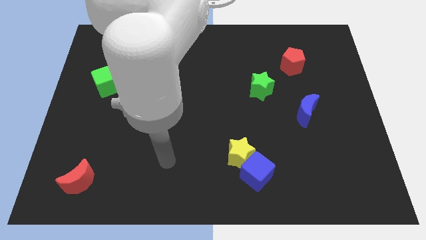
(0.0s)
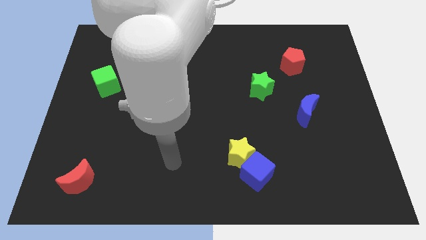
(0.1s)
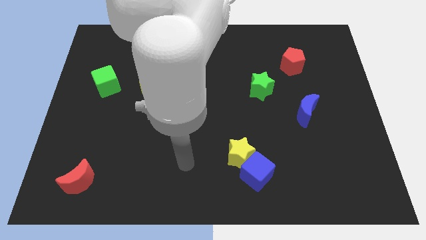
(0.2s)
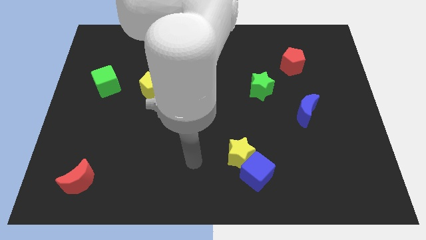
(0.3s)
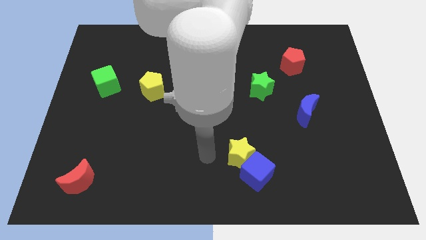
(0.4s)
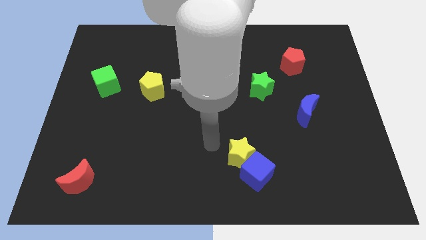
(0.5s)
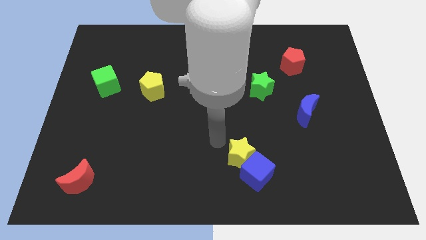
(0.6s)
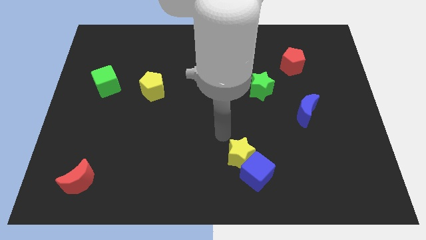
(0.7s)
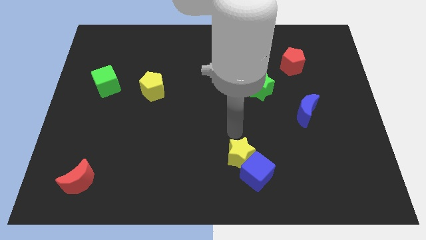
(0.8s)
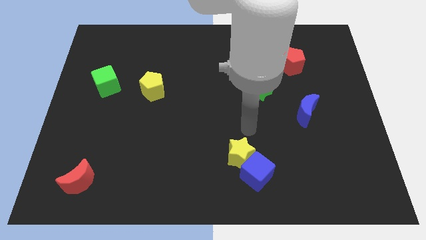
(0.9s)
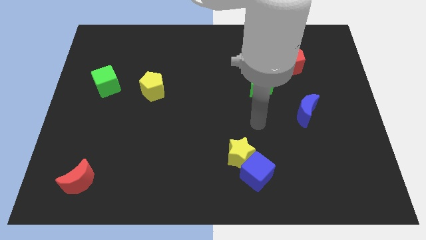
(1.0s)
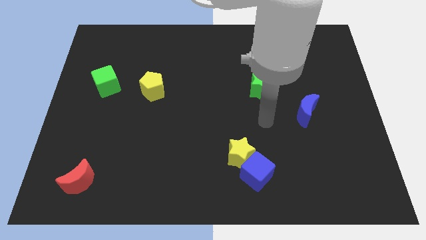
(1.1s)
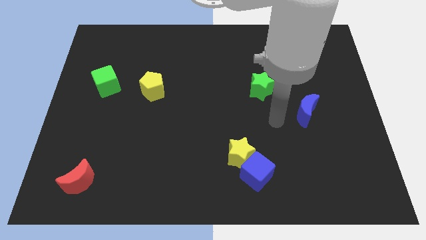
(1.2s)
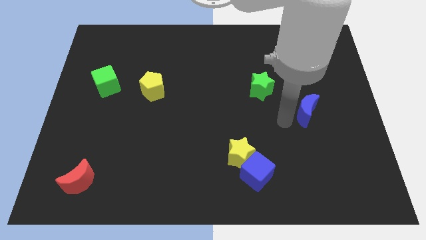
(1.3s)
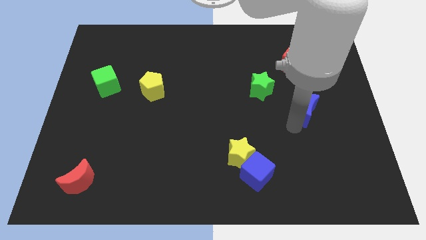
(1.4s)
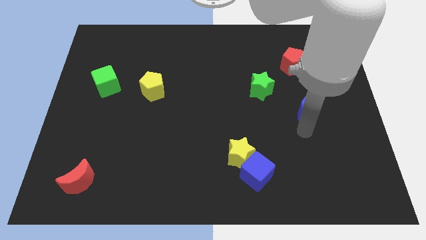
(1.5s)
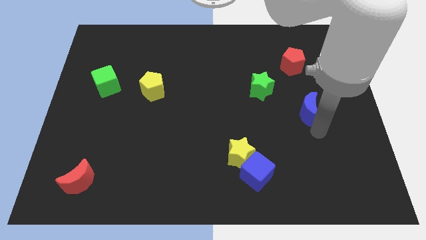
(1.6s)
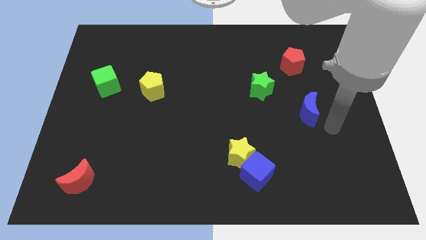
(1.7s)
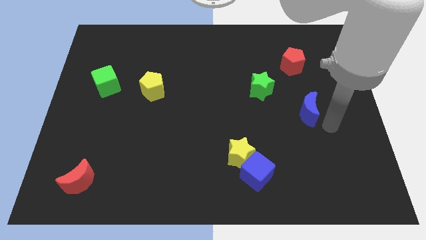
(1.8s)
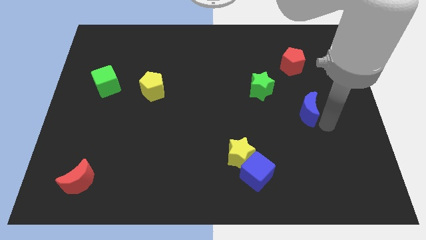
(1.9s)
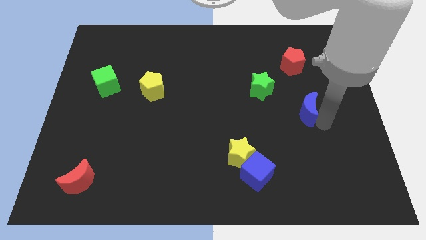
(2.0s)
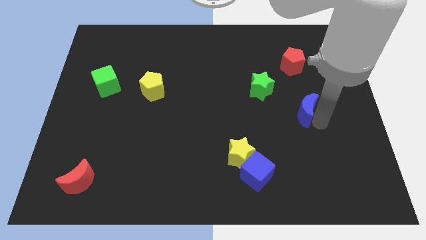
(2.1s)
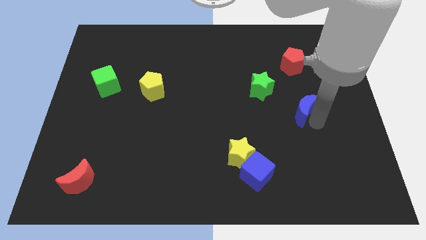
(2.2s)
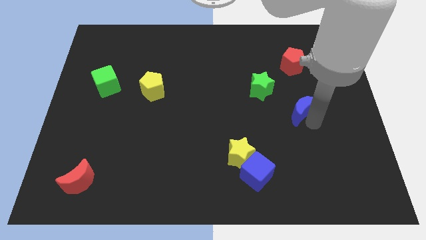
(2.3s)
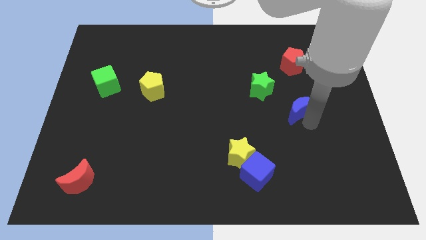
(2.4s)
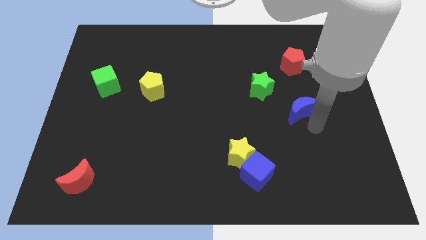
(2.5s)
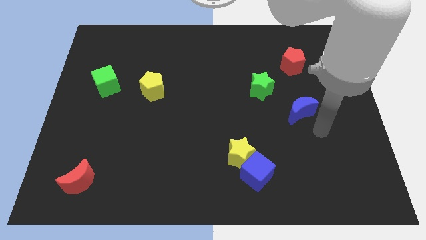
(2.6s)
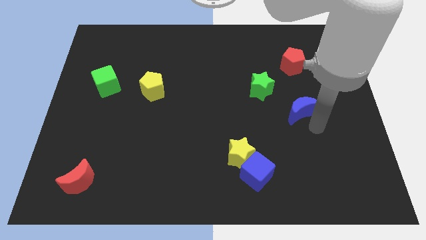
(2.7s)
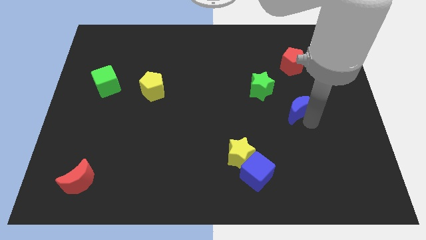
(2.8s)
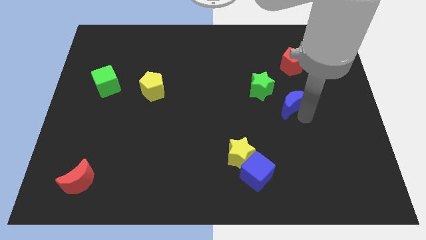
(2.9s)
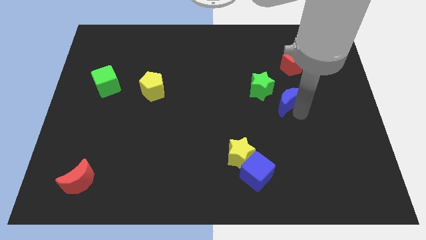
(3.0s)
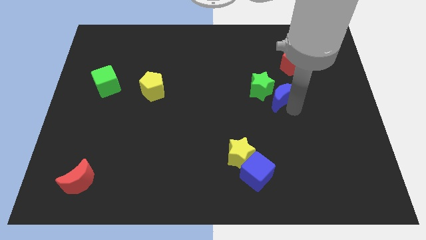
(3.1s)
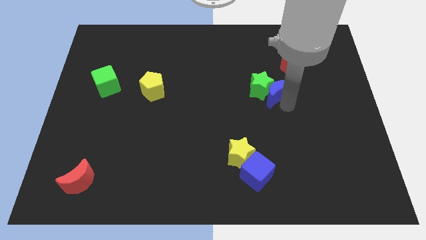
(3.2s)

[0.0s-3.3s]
slide the blue moon a little upwards and to the left diagonally

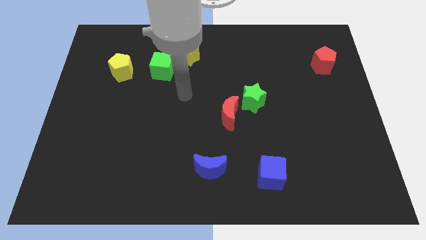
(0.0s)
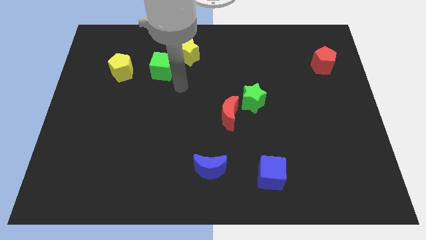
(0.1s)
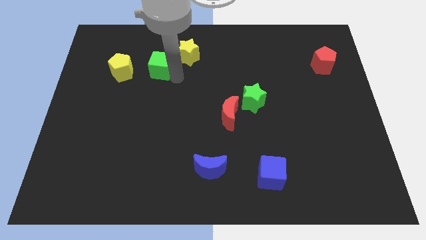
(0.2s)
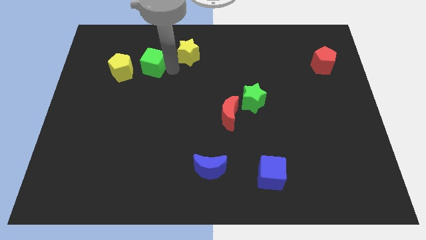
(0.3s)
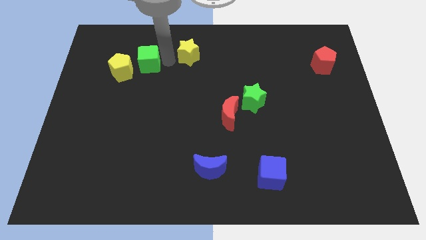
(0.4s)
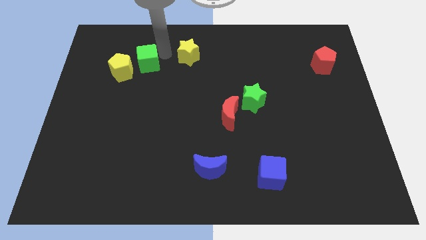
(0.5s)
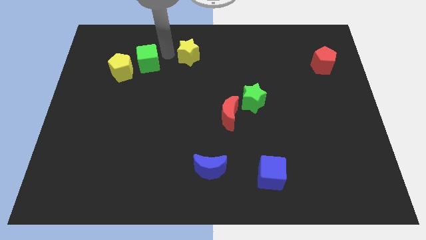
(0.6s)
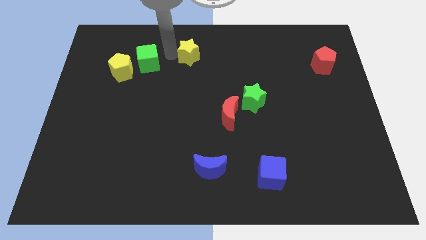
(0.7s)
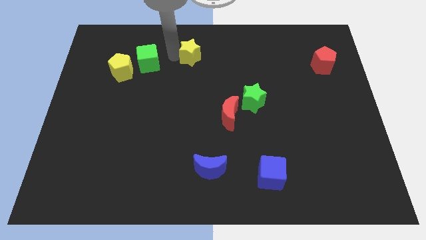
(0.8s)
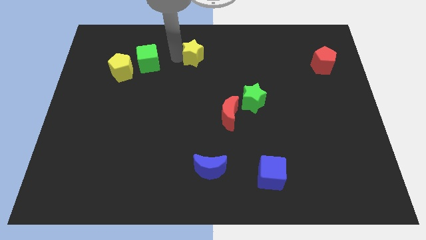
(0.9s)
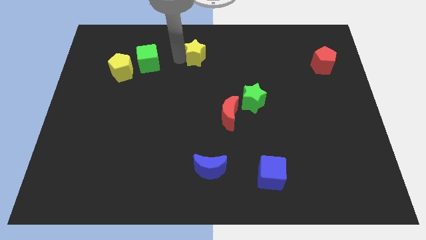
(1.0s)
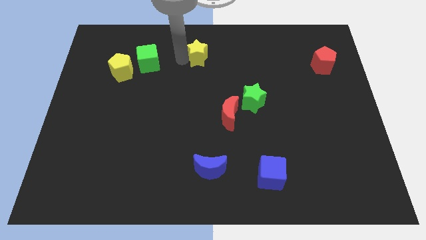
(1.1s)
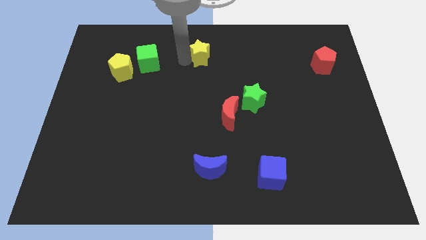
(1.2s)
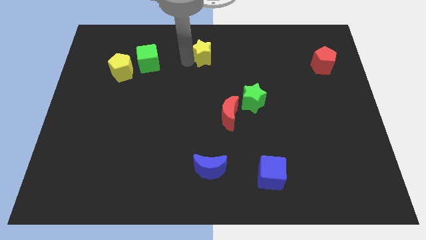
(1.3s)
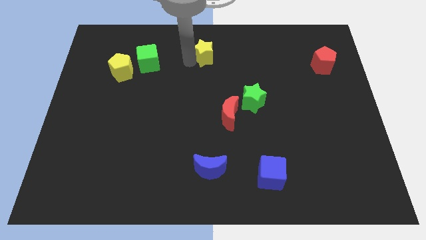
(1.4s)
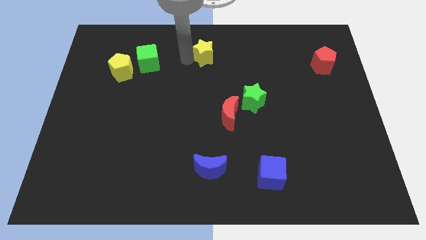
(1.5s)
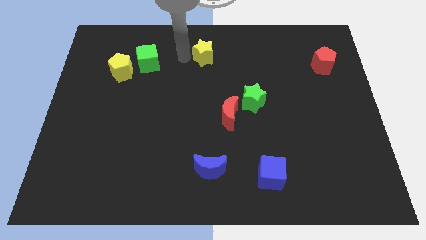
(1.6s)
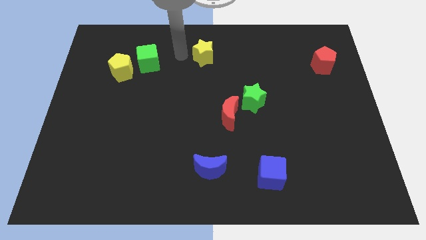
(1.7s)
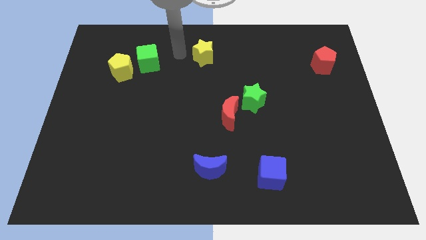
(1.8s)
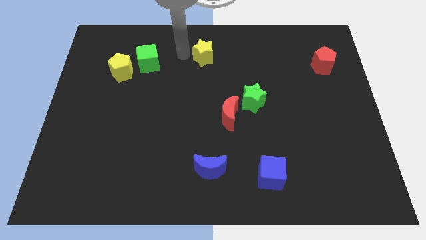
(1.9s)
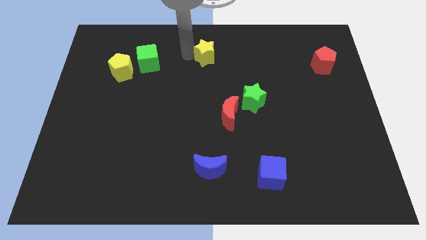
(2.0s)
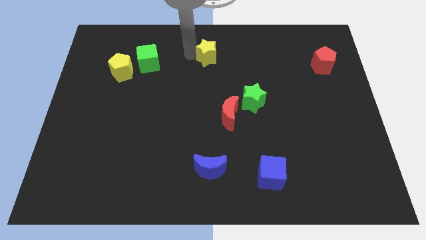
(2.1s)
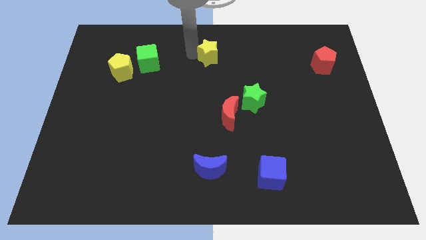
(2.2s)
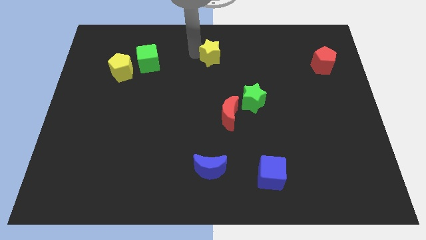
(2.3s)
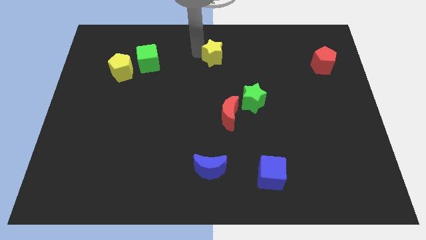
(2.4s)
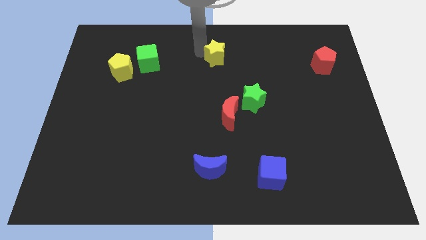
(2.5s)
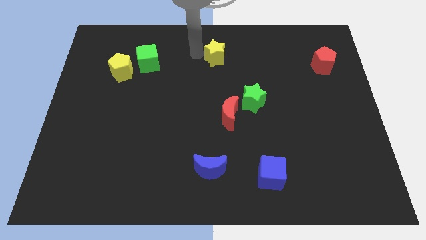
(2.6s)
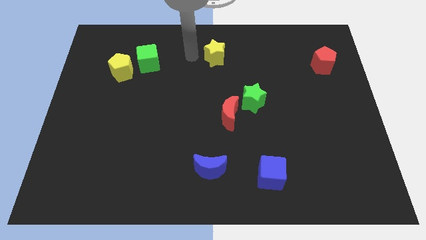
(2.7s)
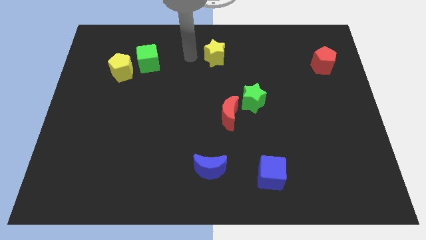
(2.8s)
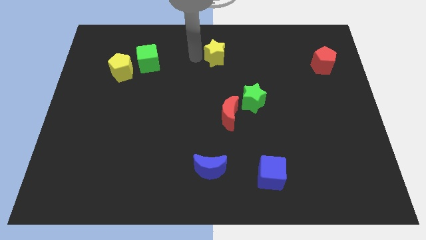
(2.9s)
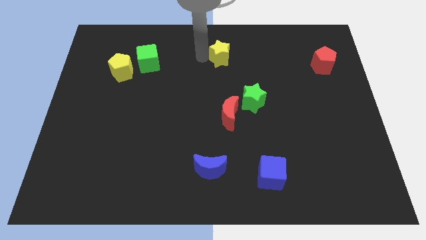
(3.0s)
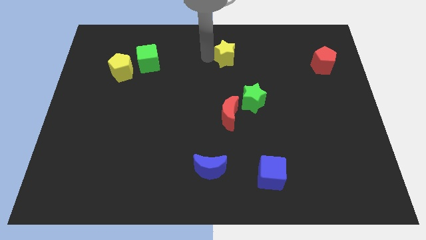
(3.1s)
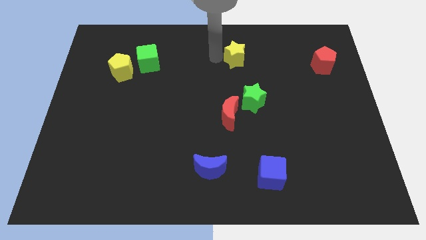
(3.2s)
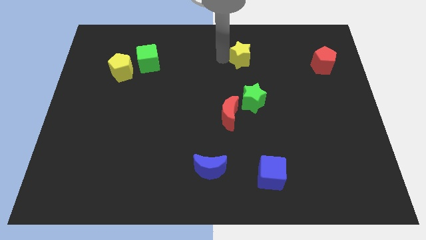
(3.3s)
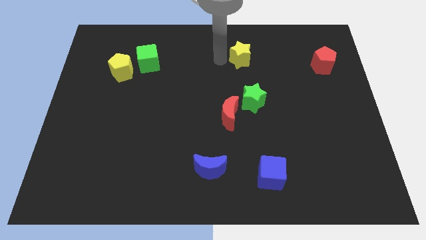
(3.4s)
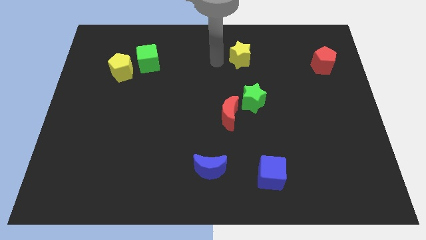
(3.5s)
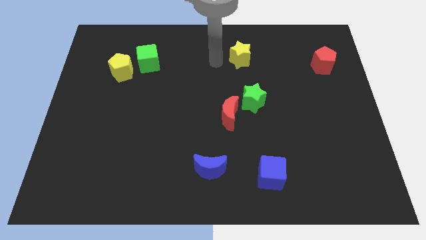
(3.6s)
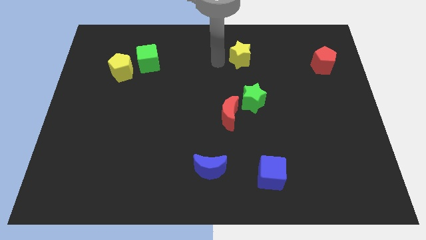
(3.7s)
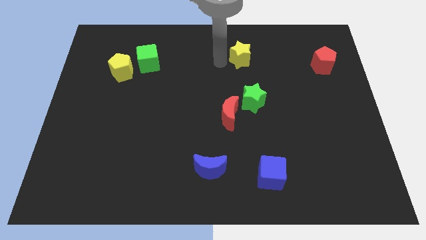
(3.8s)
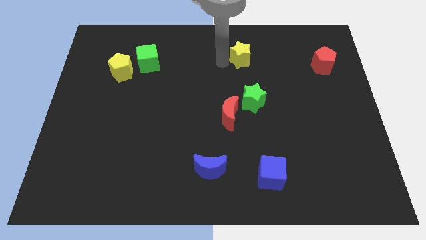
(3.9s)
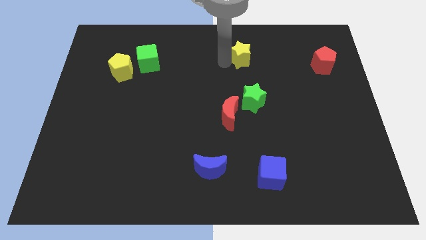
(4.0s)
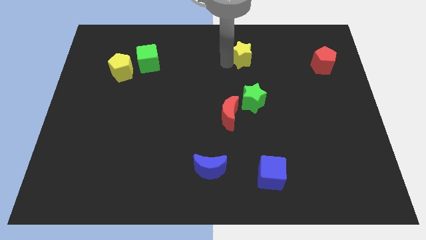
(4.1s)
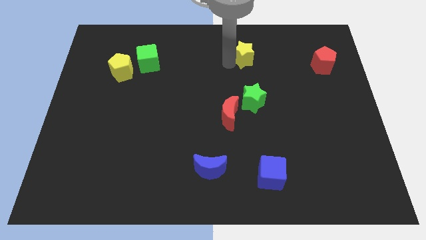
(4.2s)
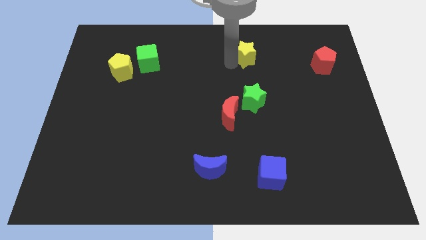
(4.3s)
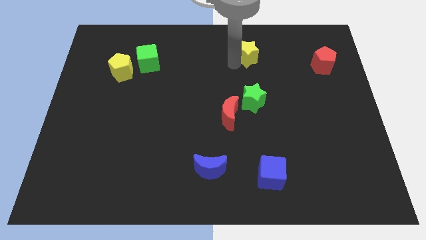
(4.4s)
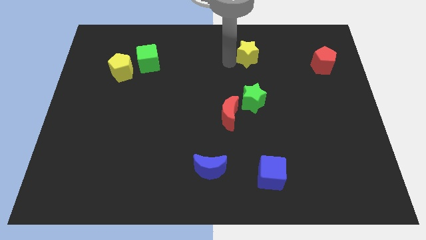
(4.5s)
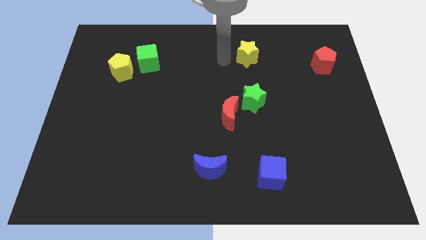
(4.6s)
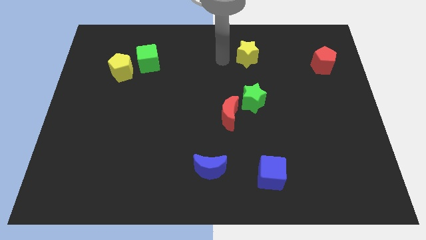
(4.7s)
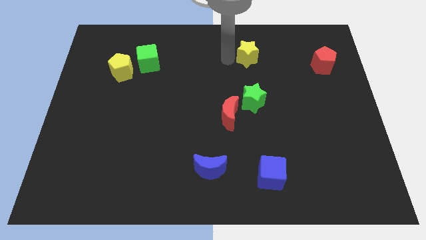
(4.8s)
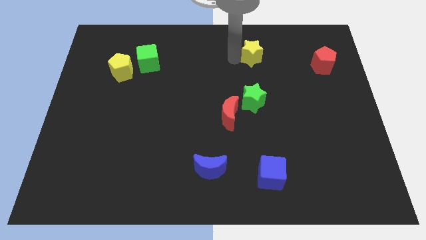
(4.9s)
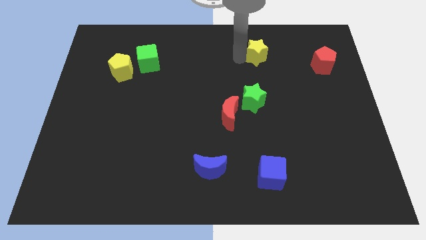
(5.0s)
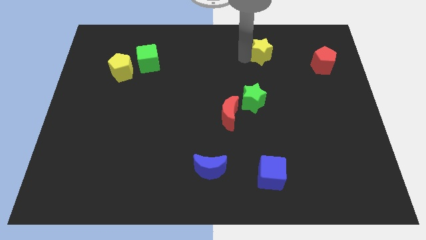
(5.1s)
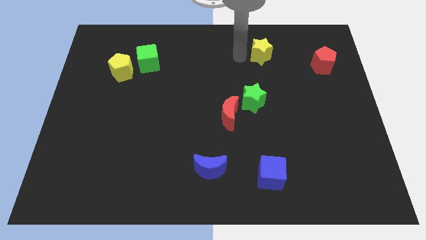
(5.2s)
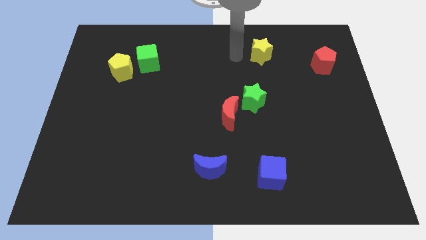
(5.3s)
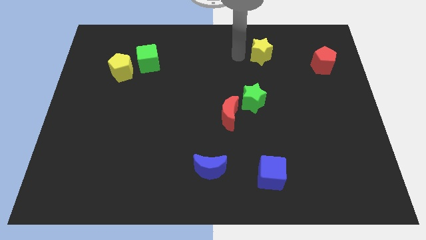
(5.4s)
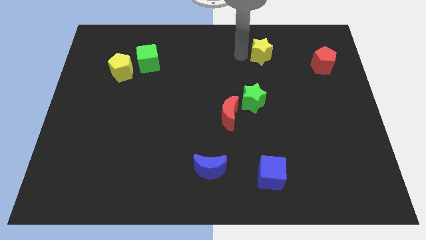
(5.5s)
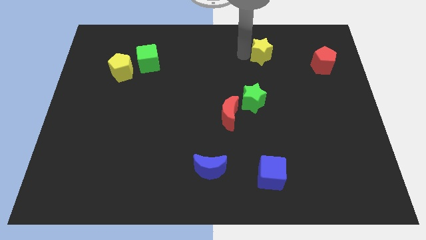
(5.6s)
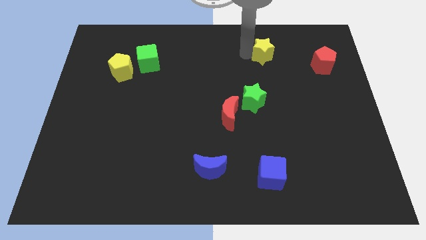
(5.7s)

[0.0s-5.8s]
slide the yellow star right
